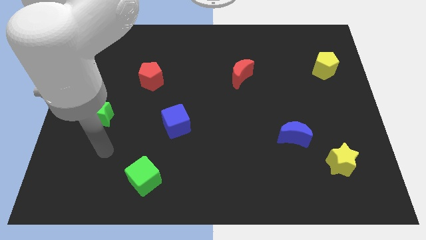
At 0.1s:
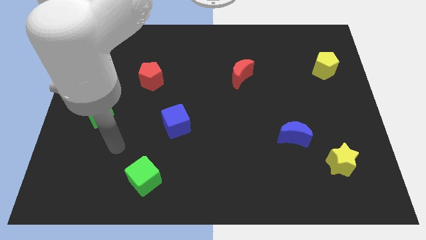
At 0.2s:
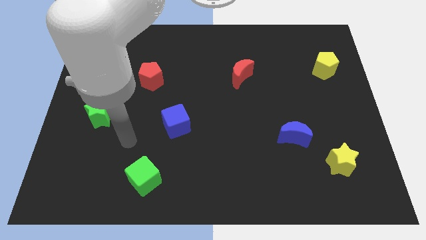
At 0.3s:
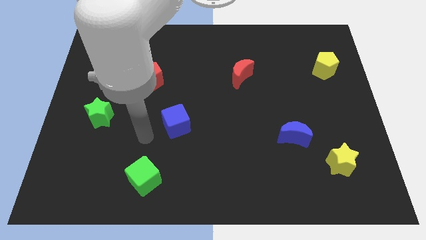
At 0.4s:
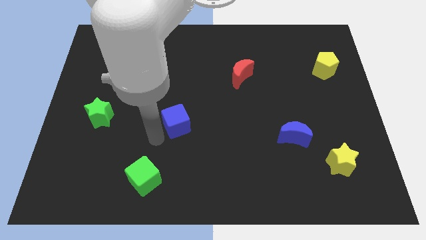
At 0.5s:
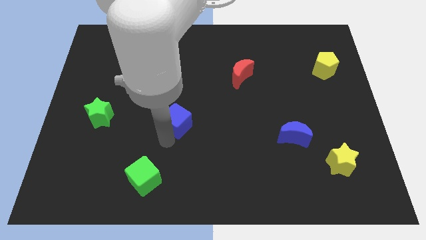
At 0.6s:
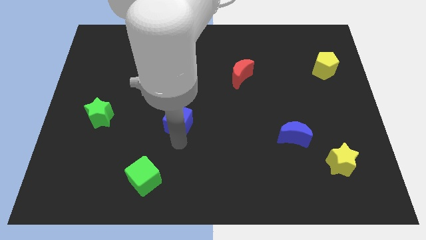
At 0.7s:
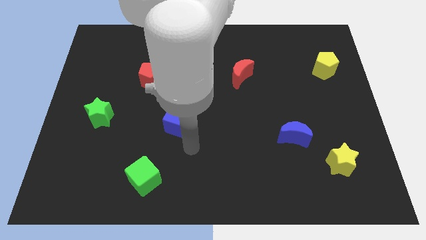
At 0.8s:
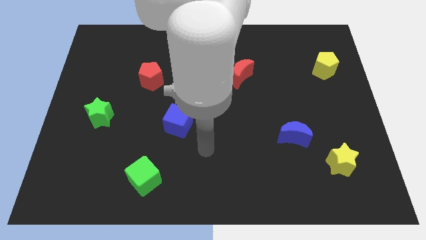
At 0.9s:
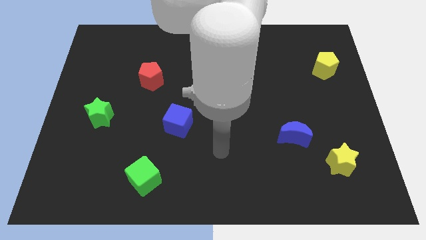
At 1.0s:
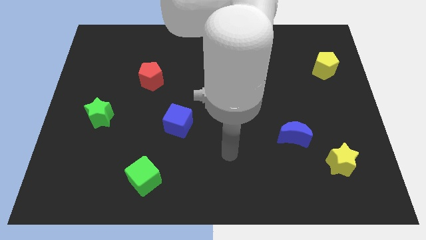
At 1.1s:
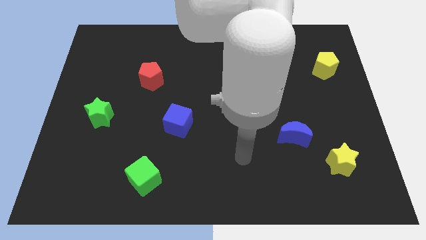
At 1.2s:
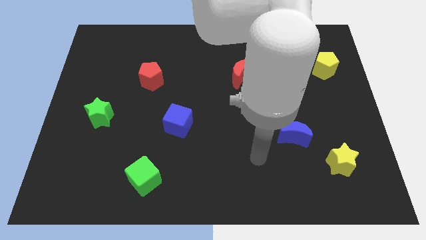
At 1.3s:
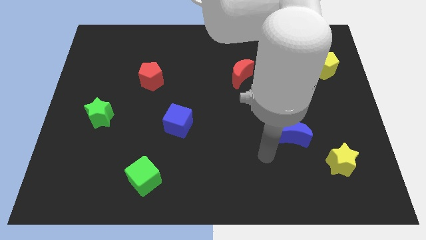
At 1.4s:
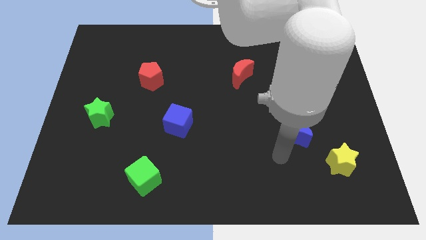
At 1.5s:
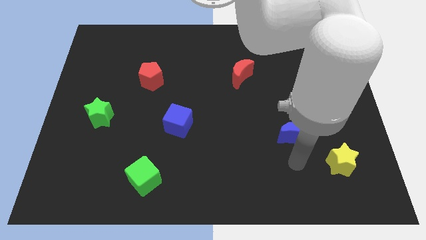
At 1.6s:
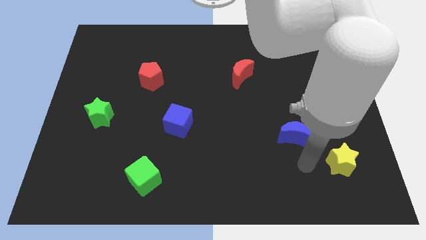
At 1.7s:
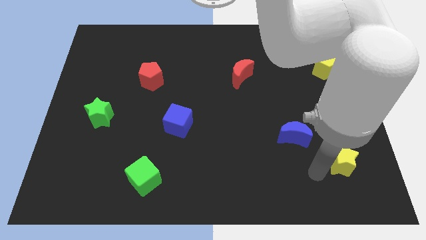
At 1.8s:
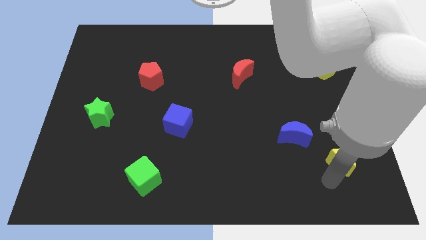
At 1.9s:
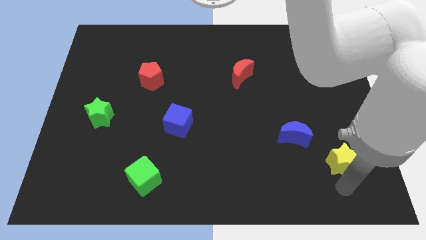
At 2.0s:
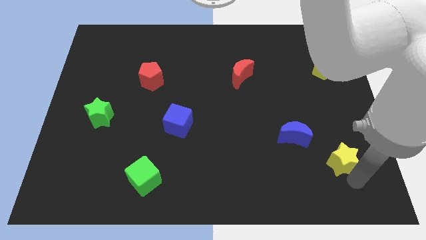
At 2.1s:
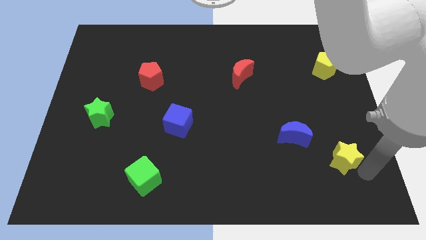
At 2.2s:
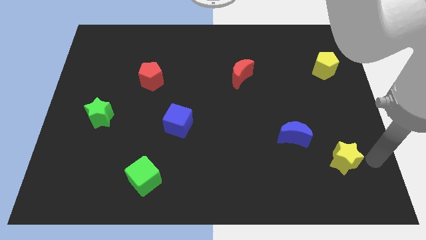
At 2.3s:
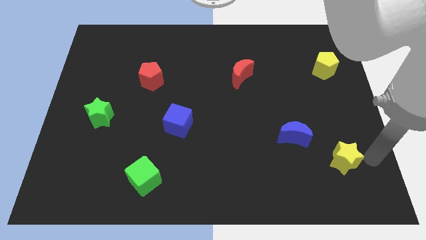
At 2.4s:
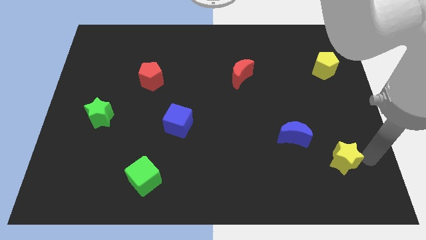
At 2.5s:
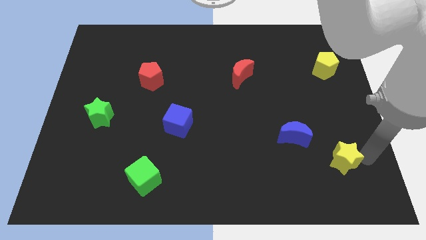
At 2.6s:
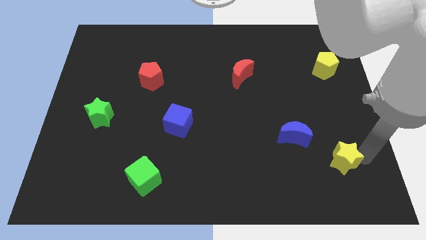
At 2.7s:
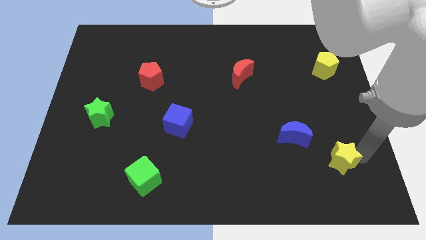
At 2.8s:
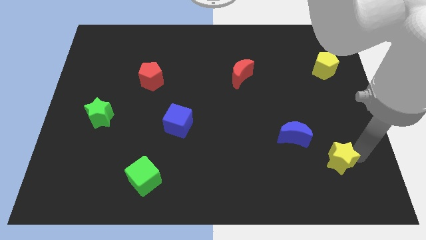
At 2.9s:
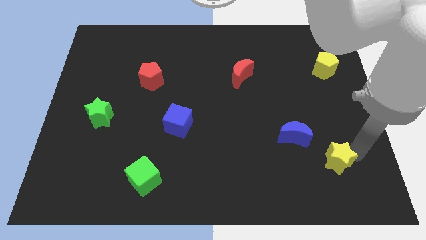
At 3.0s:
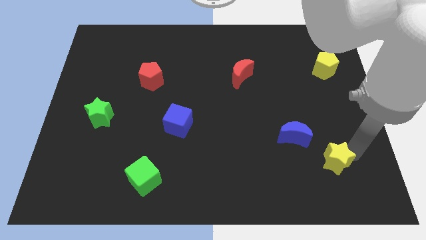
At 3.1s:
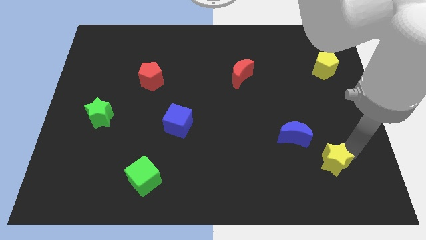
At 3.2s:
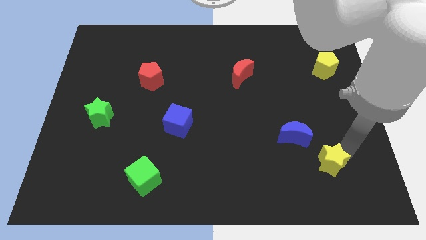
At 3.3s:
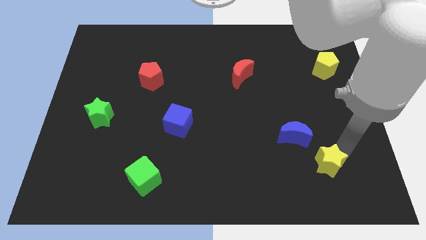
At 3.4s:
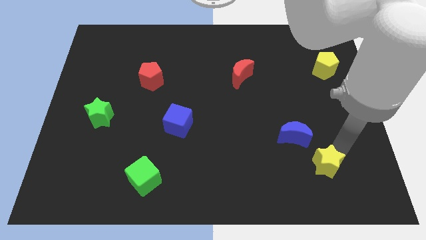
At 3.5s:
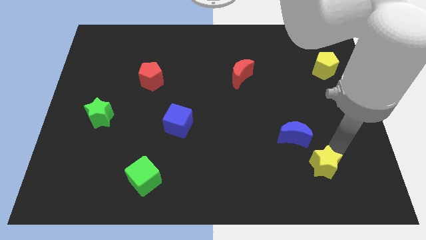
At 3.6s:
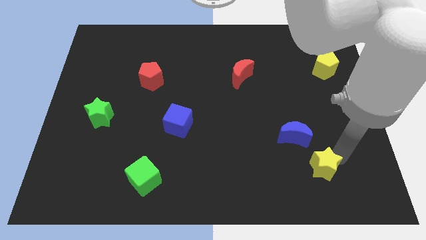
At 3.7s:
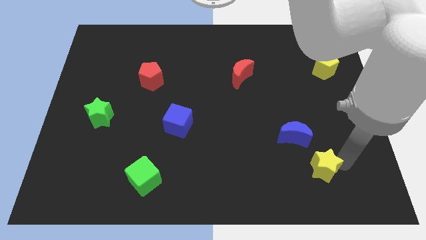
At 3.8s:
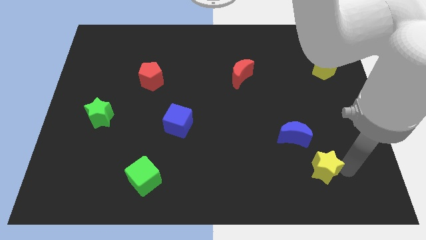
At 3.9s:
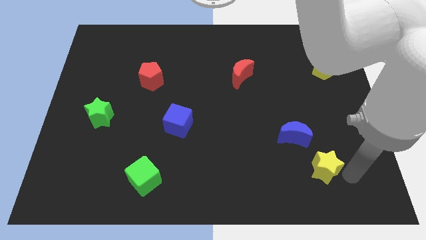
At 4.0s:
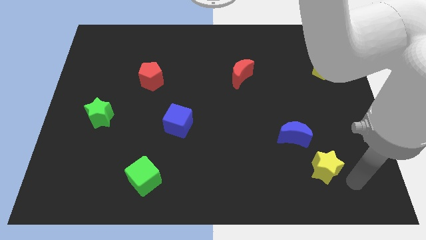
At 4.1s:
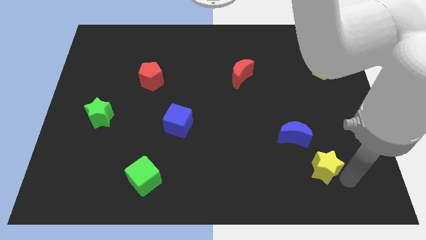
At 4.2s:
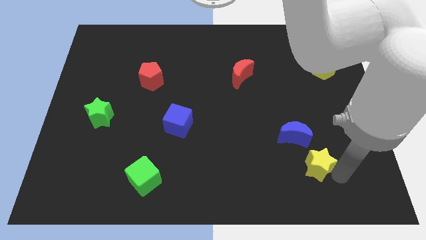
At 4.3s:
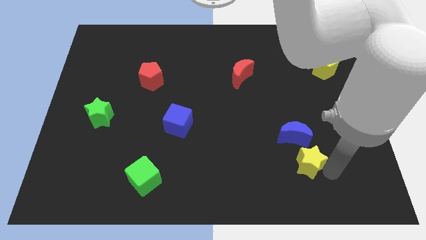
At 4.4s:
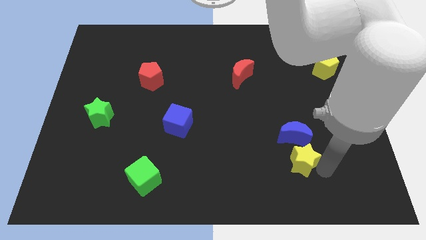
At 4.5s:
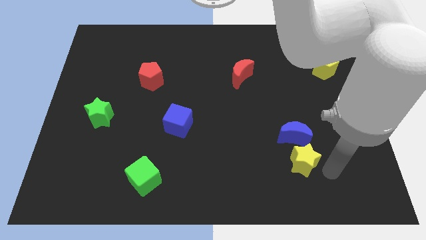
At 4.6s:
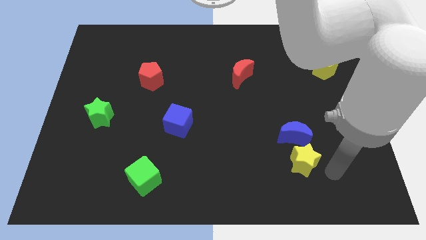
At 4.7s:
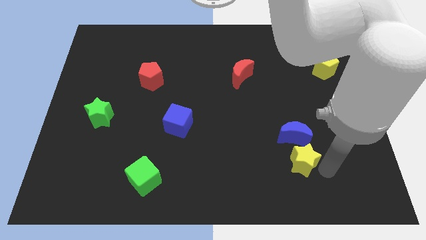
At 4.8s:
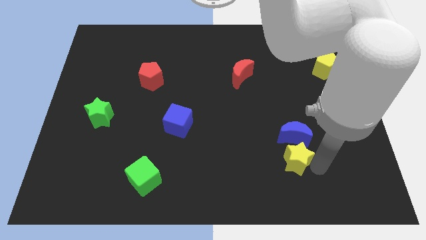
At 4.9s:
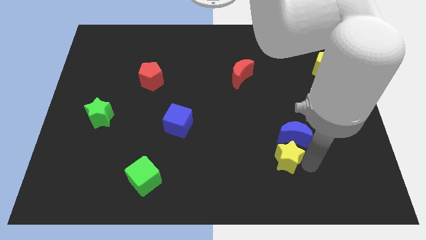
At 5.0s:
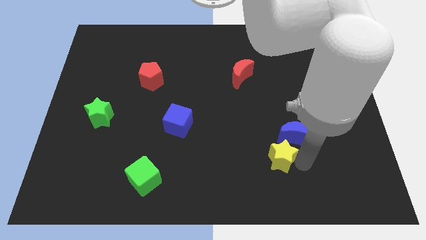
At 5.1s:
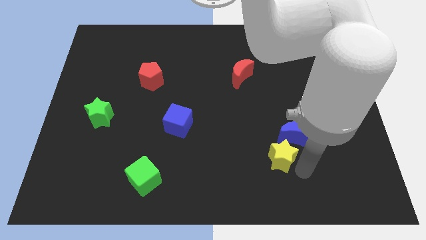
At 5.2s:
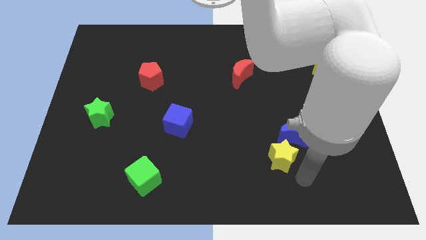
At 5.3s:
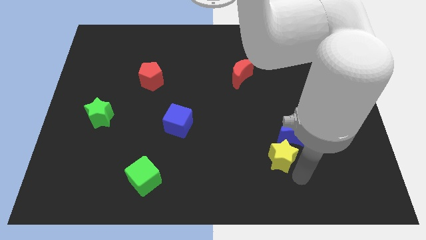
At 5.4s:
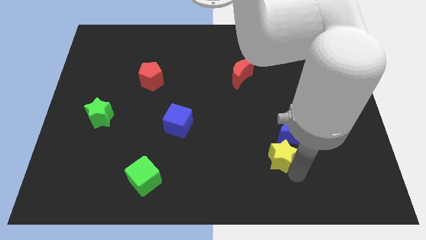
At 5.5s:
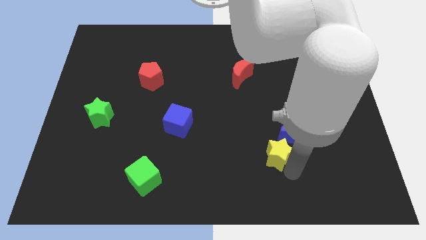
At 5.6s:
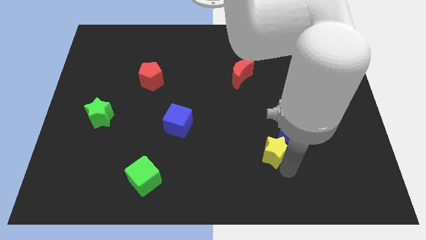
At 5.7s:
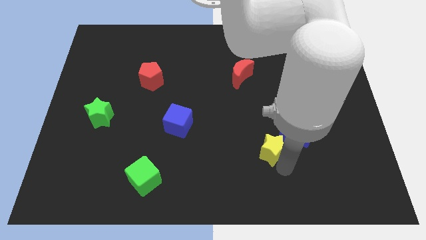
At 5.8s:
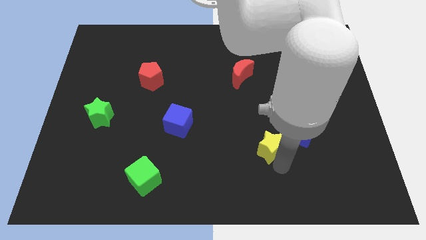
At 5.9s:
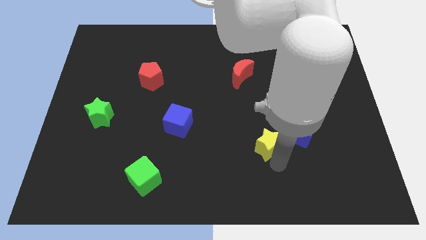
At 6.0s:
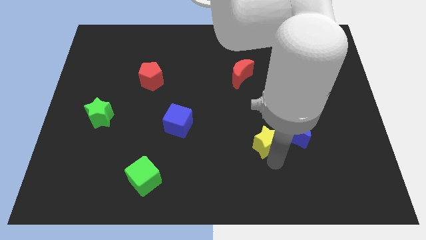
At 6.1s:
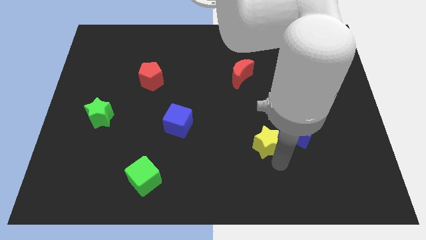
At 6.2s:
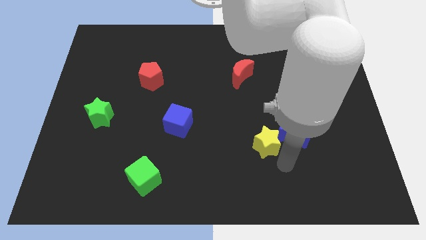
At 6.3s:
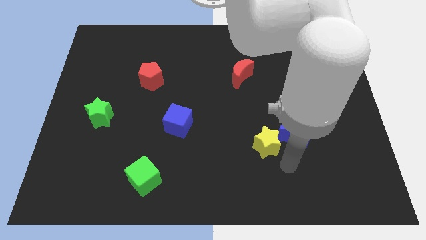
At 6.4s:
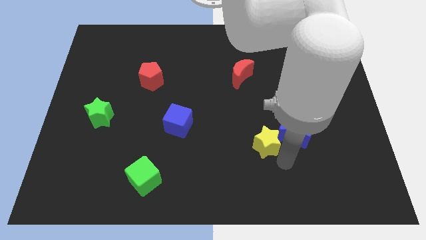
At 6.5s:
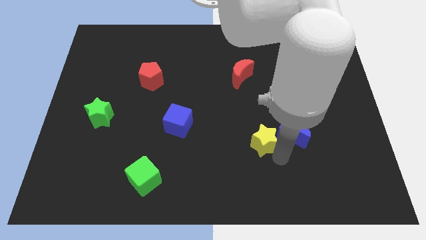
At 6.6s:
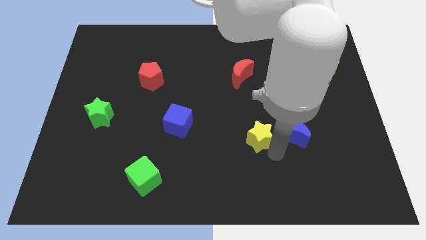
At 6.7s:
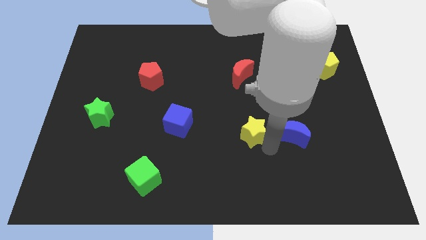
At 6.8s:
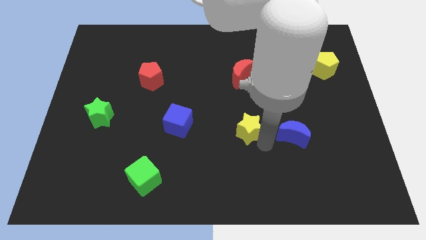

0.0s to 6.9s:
push the yellow star to the middle
